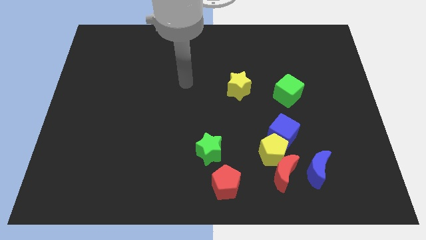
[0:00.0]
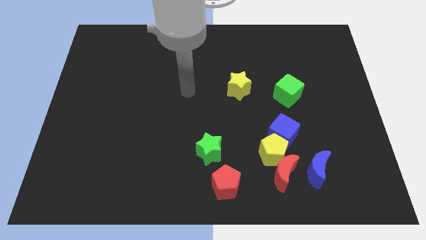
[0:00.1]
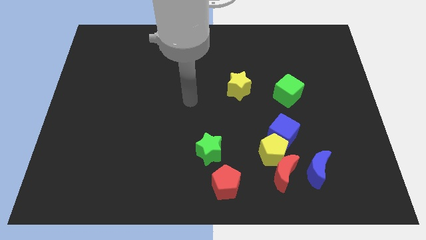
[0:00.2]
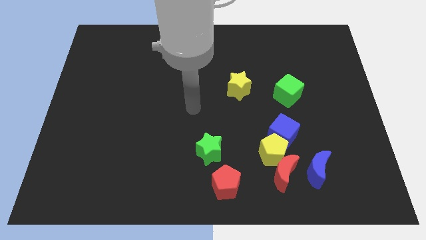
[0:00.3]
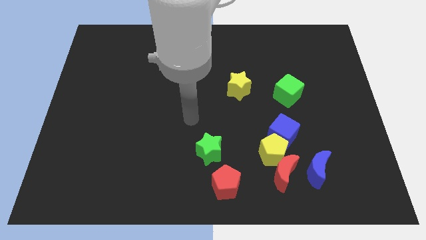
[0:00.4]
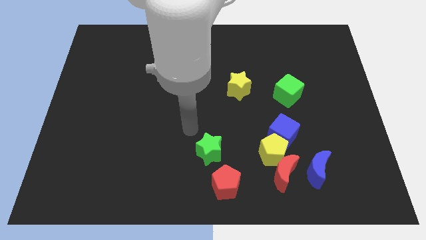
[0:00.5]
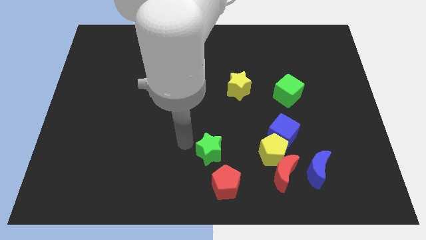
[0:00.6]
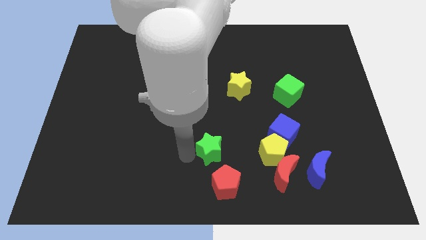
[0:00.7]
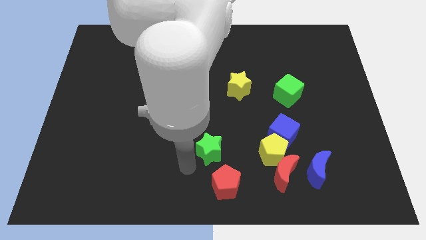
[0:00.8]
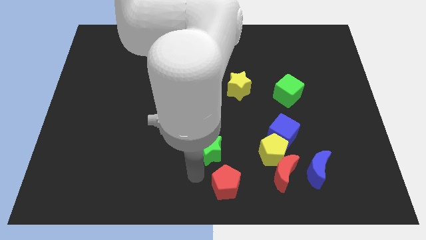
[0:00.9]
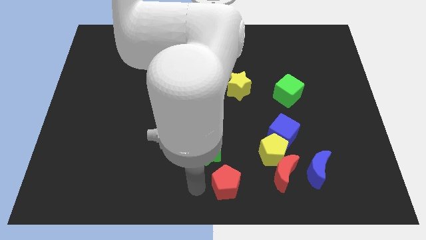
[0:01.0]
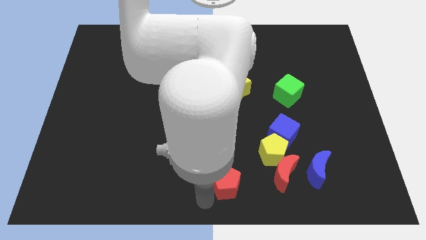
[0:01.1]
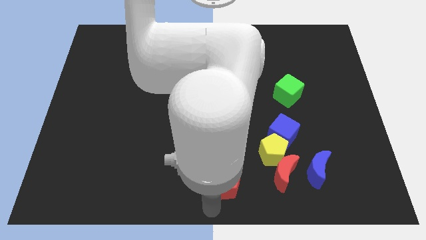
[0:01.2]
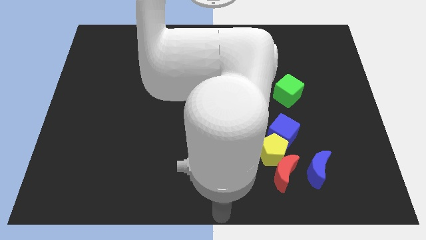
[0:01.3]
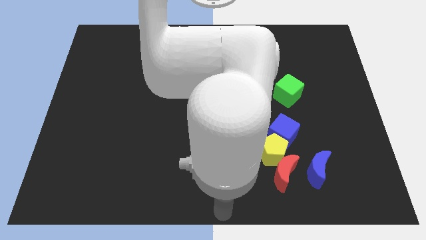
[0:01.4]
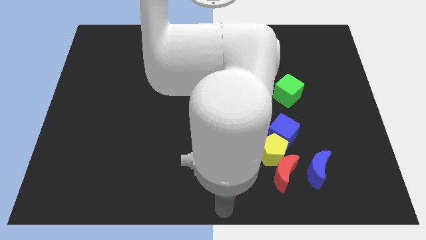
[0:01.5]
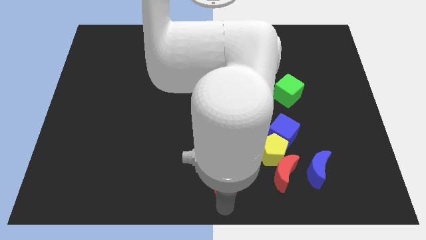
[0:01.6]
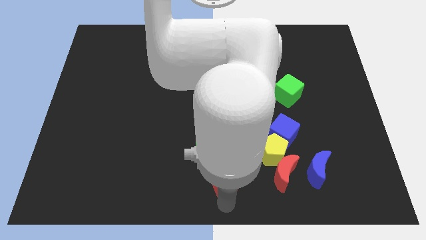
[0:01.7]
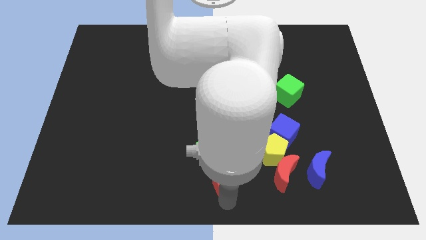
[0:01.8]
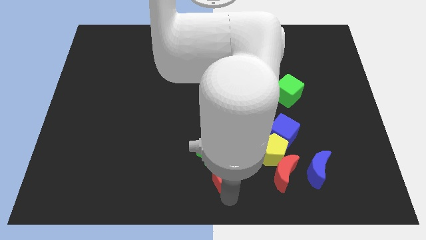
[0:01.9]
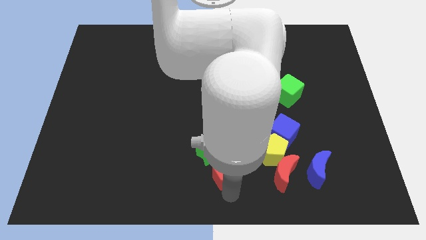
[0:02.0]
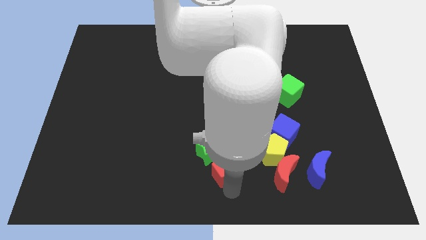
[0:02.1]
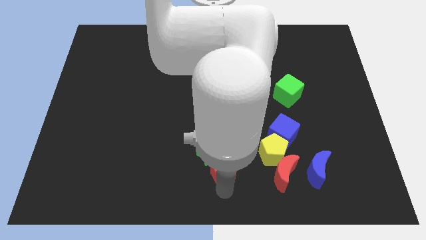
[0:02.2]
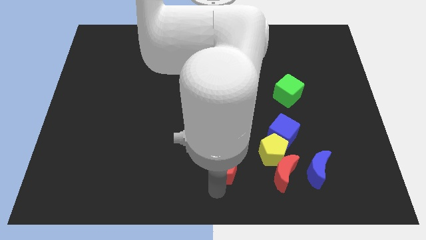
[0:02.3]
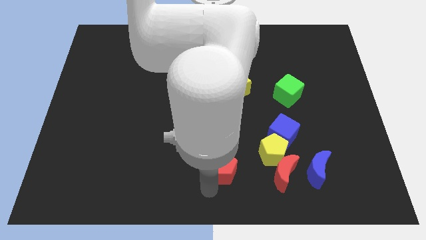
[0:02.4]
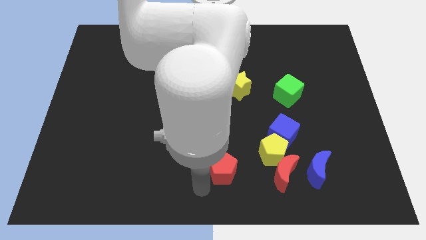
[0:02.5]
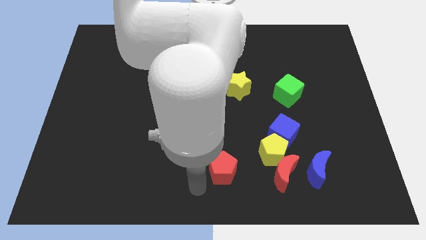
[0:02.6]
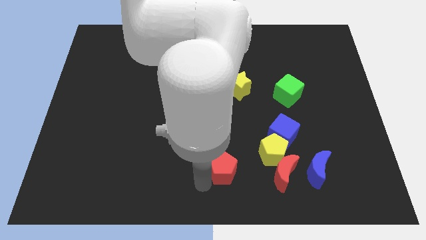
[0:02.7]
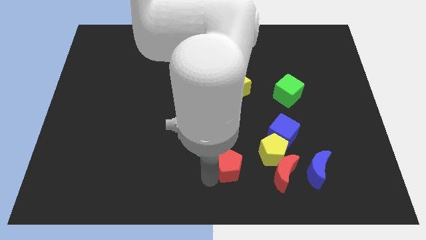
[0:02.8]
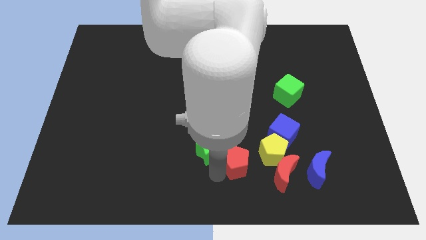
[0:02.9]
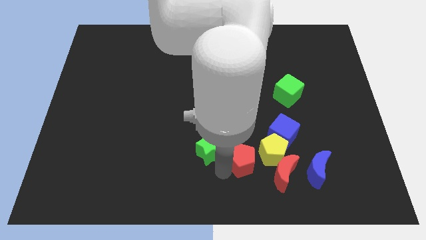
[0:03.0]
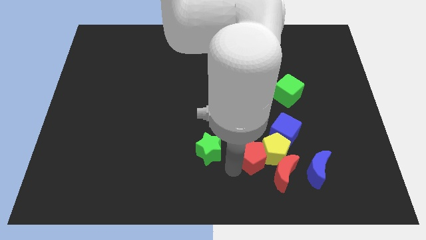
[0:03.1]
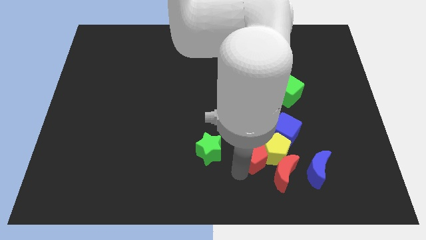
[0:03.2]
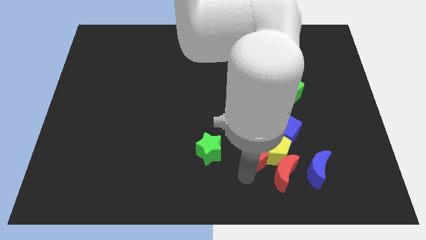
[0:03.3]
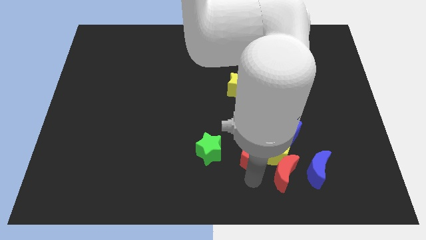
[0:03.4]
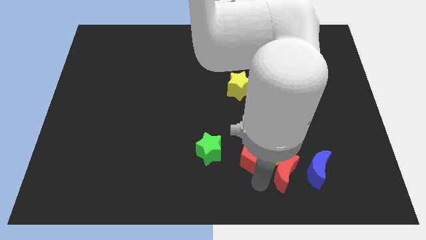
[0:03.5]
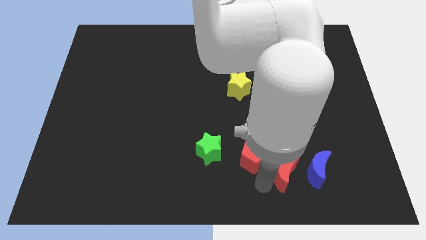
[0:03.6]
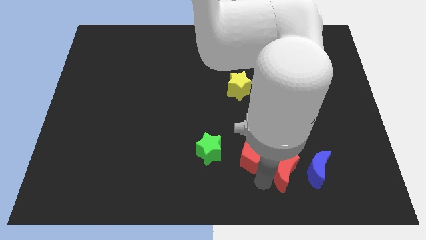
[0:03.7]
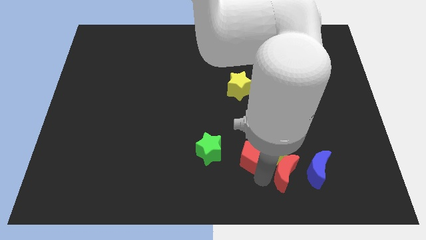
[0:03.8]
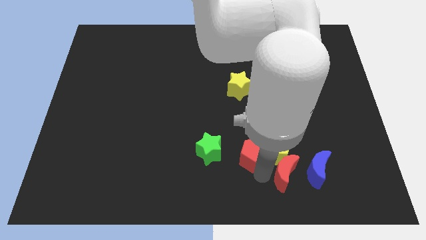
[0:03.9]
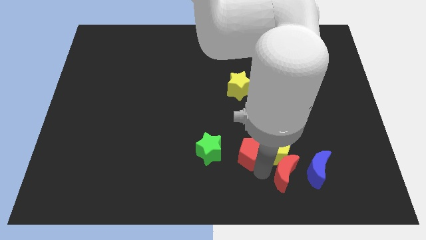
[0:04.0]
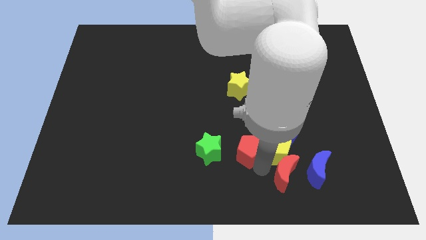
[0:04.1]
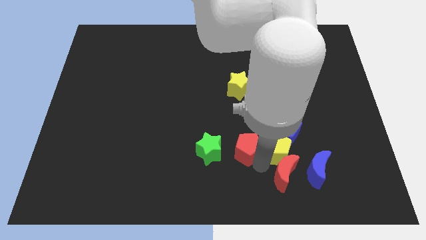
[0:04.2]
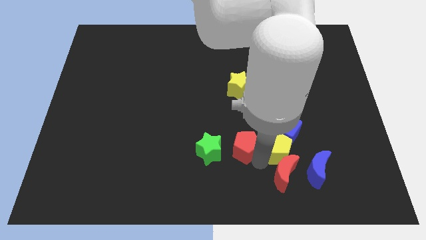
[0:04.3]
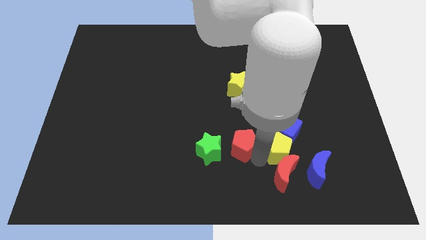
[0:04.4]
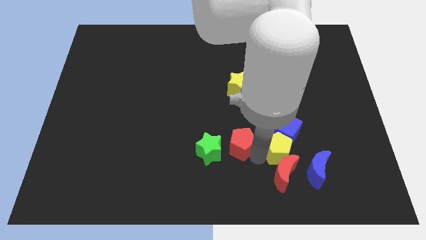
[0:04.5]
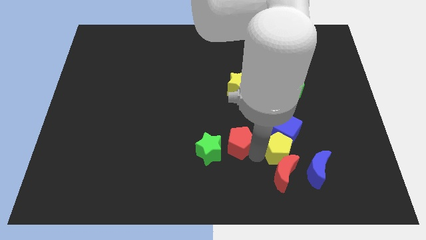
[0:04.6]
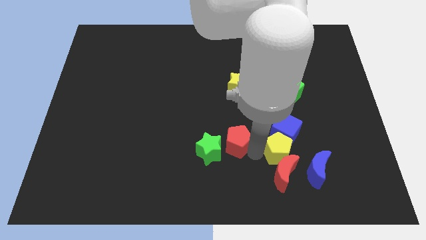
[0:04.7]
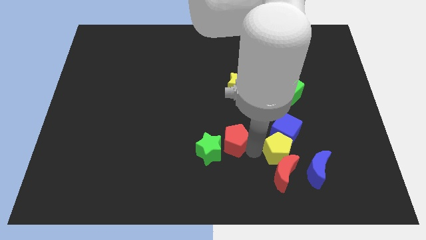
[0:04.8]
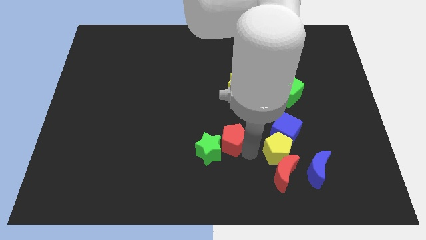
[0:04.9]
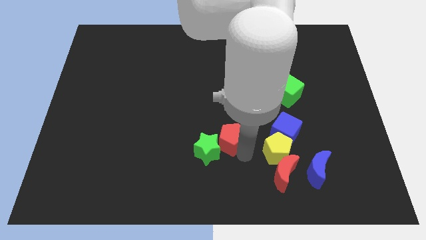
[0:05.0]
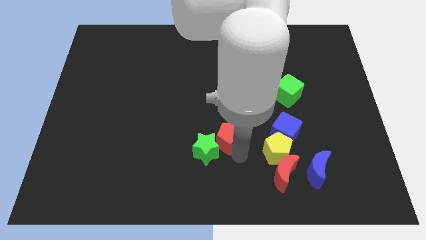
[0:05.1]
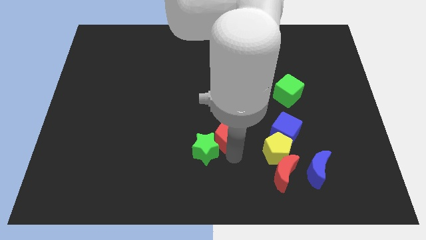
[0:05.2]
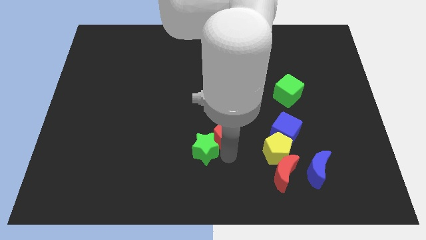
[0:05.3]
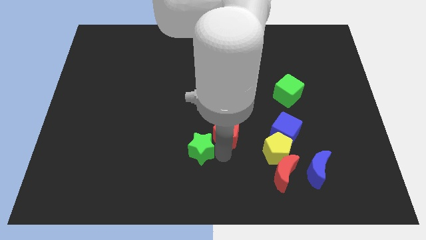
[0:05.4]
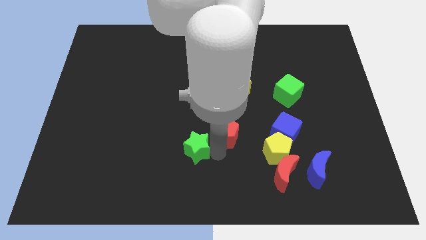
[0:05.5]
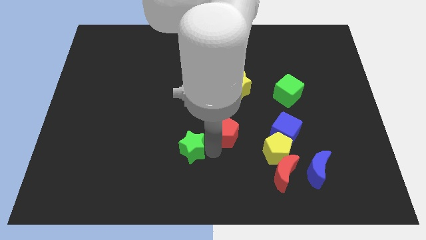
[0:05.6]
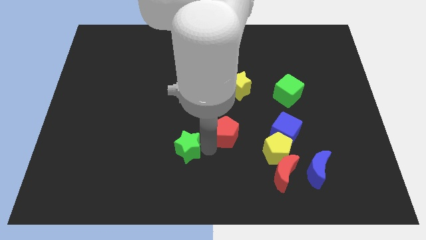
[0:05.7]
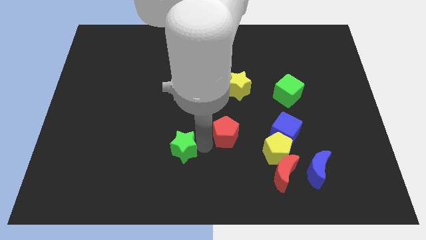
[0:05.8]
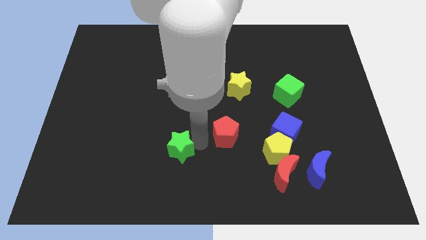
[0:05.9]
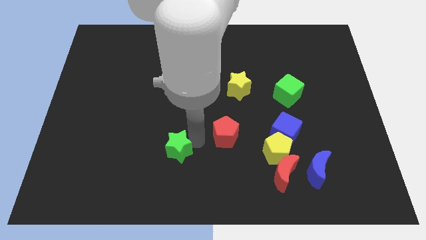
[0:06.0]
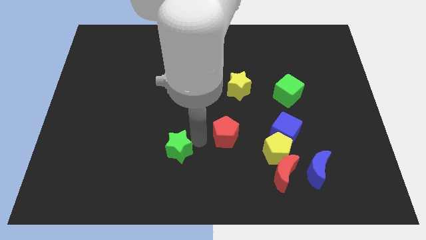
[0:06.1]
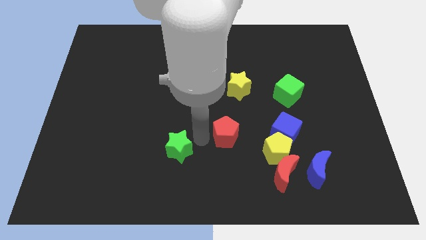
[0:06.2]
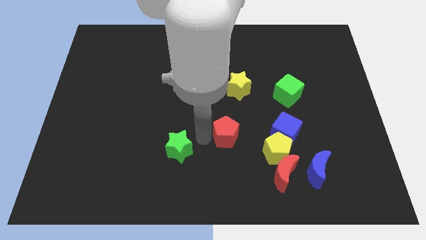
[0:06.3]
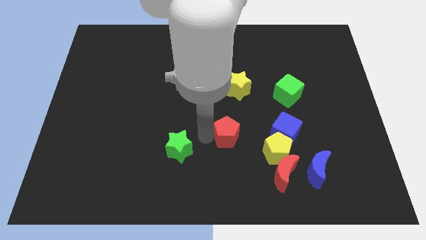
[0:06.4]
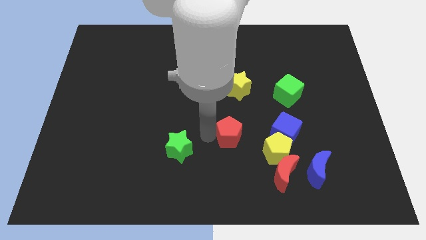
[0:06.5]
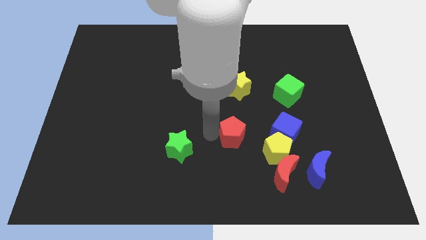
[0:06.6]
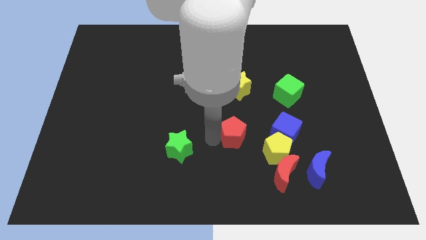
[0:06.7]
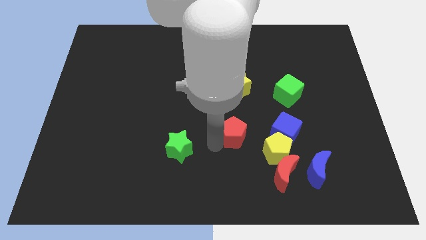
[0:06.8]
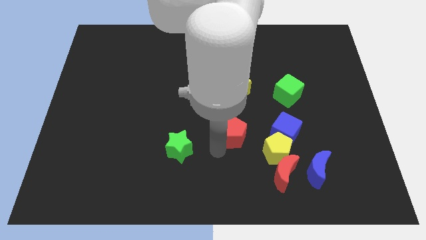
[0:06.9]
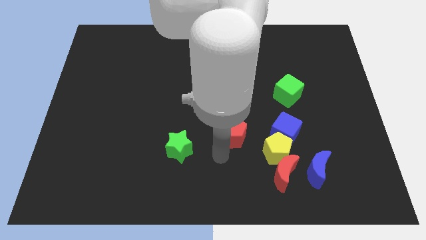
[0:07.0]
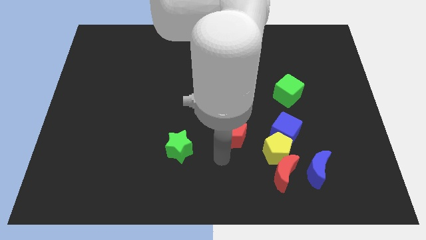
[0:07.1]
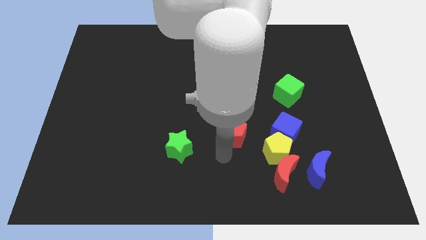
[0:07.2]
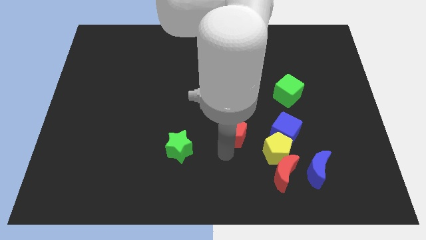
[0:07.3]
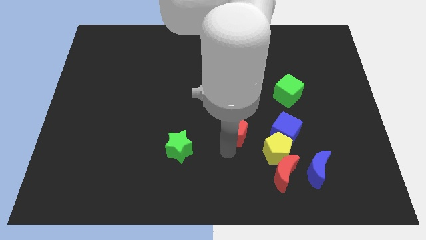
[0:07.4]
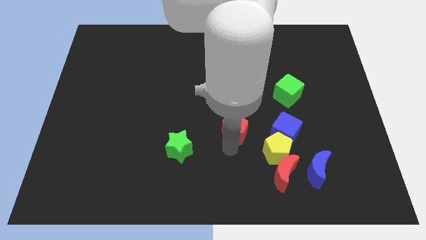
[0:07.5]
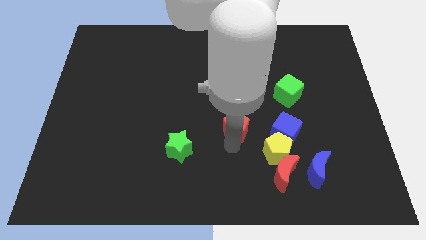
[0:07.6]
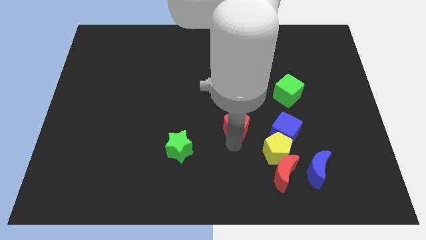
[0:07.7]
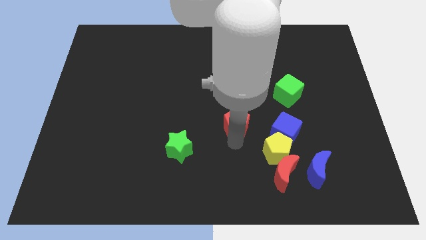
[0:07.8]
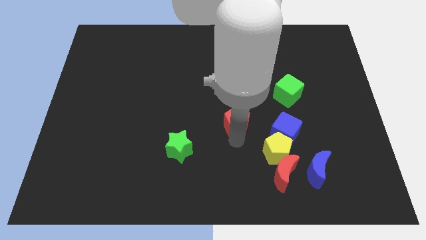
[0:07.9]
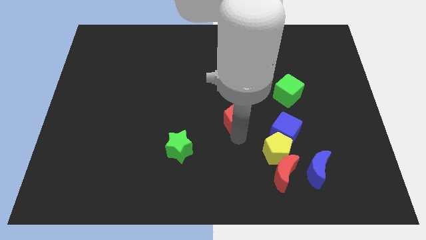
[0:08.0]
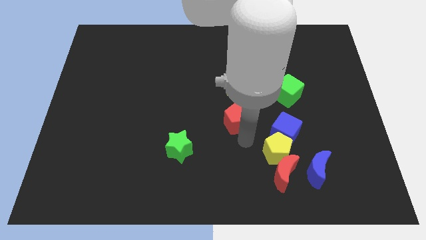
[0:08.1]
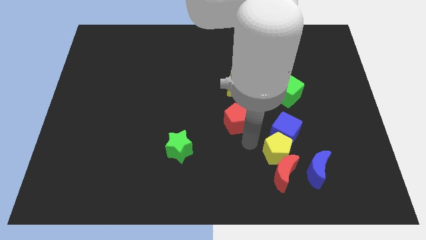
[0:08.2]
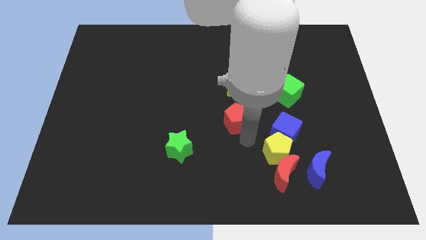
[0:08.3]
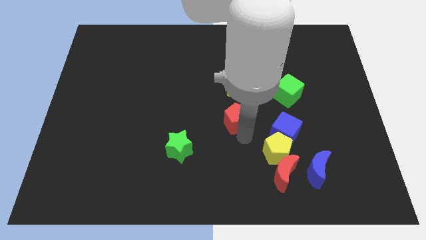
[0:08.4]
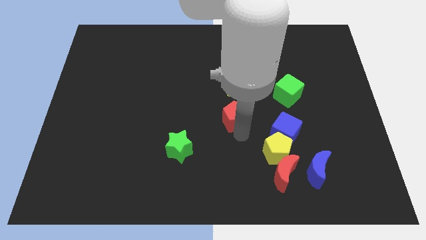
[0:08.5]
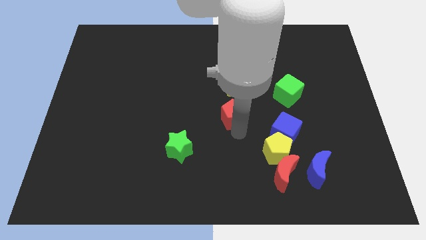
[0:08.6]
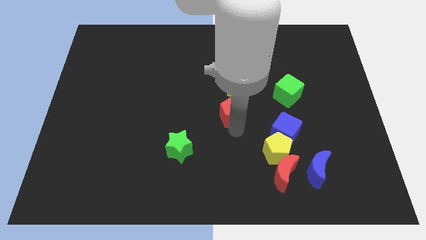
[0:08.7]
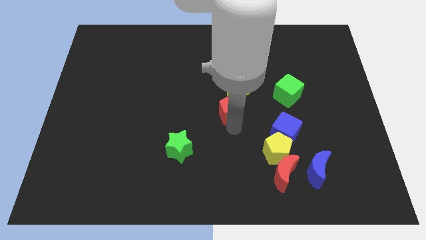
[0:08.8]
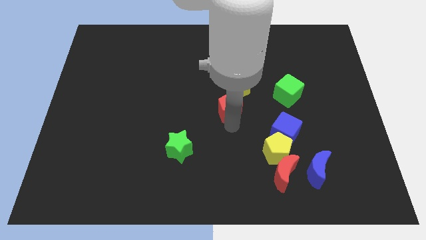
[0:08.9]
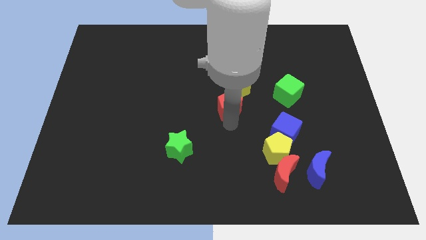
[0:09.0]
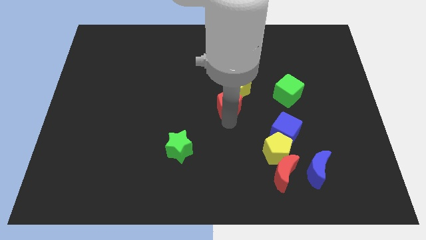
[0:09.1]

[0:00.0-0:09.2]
move the red pentagon up
